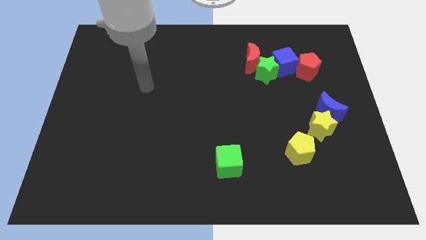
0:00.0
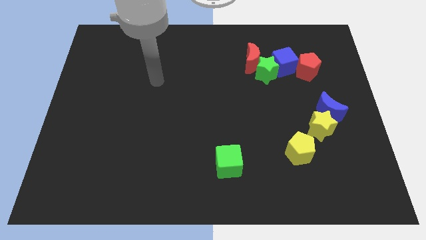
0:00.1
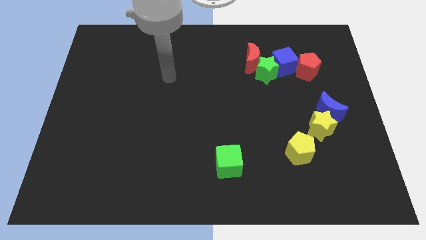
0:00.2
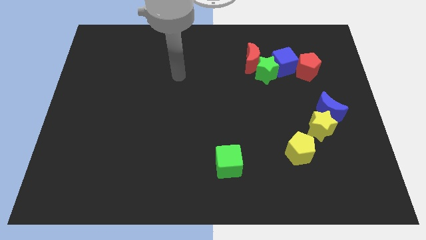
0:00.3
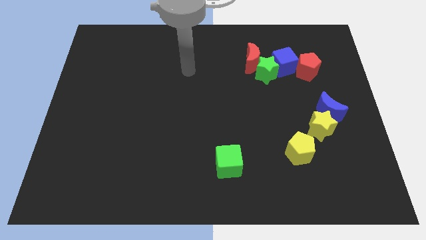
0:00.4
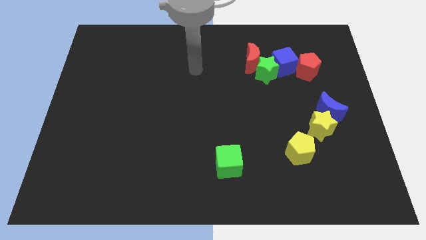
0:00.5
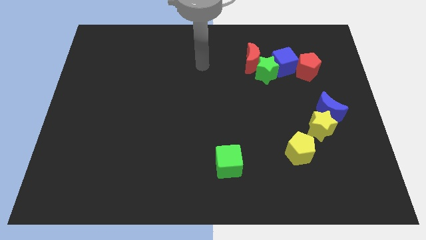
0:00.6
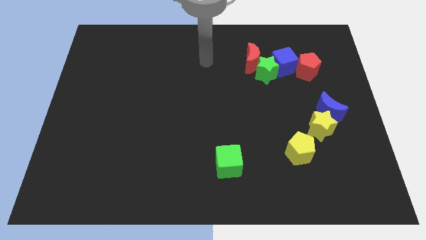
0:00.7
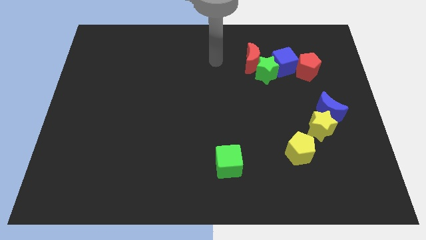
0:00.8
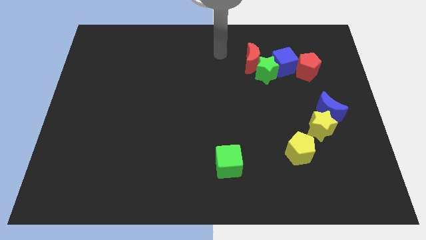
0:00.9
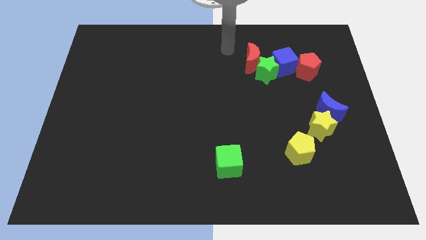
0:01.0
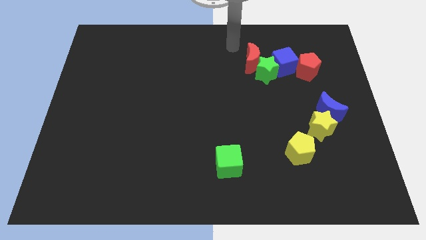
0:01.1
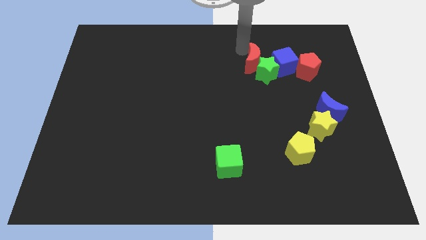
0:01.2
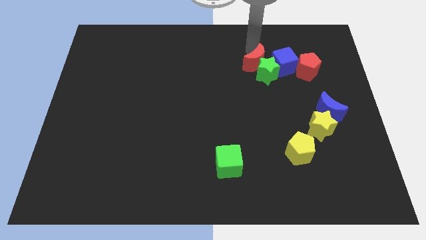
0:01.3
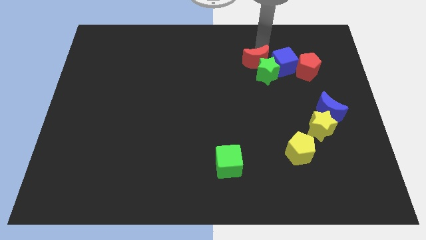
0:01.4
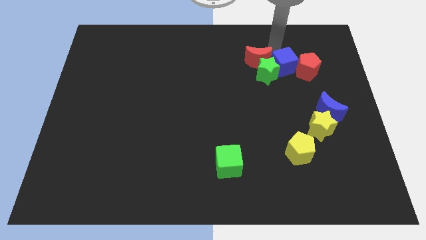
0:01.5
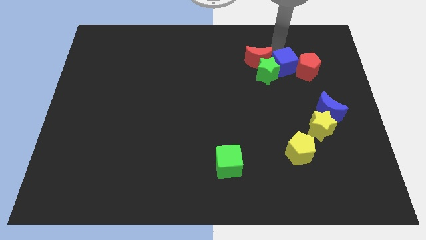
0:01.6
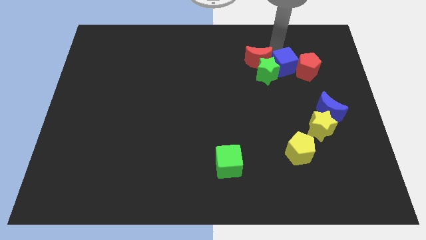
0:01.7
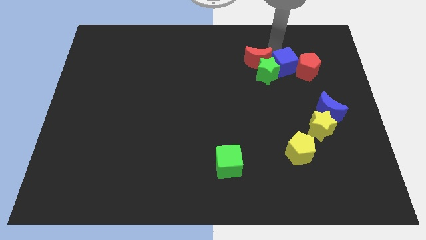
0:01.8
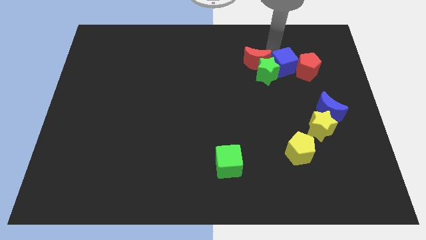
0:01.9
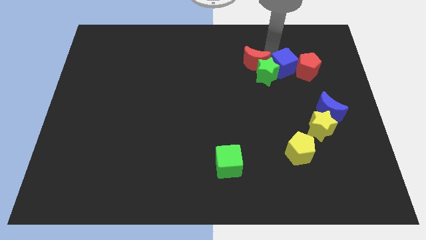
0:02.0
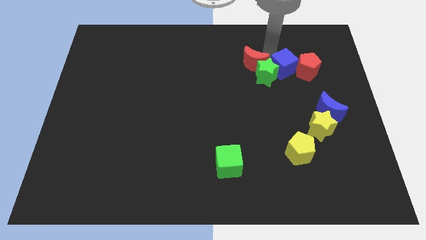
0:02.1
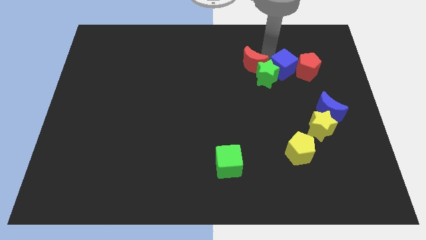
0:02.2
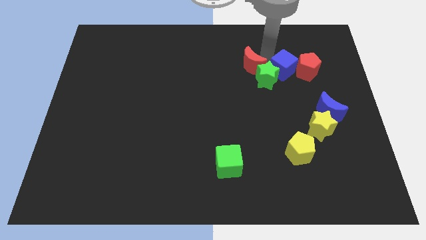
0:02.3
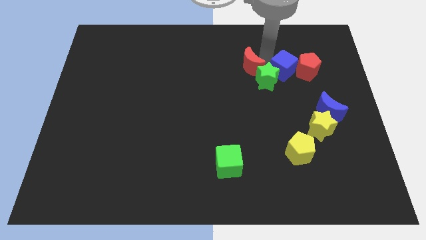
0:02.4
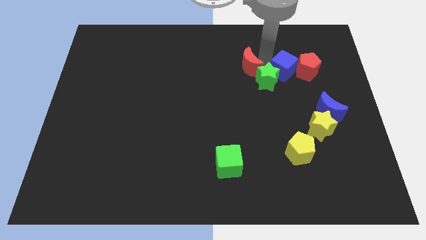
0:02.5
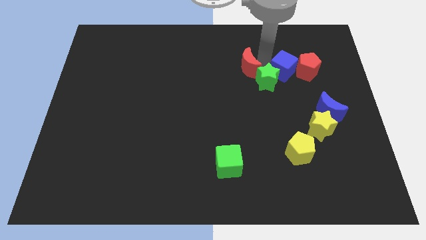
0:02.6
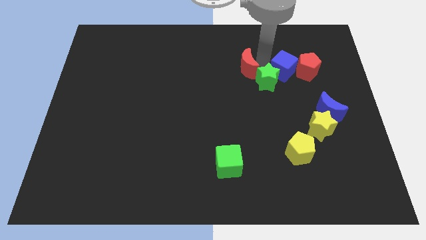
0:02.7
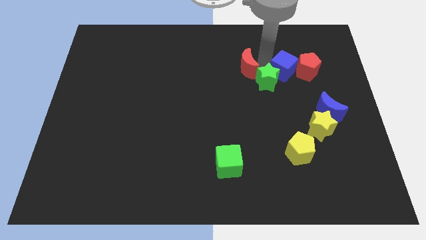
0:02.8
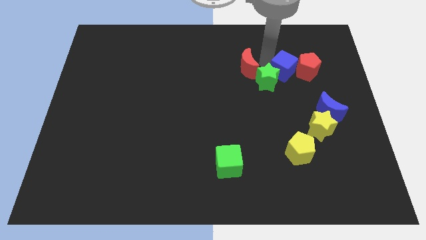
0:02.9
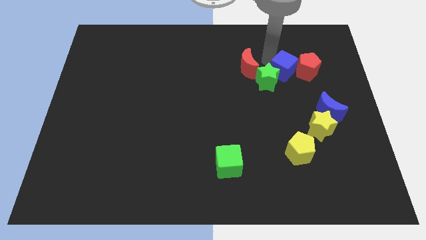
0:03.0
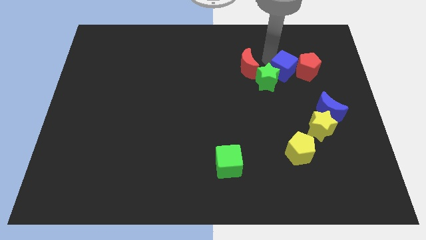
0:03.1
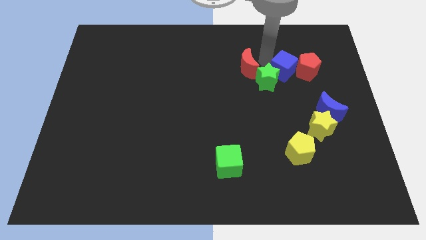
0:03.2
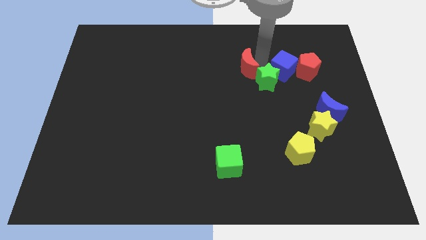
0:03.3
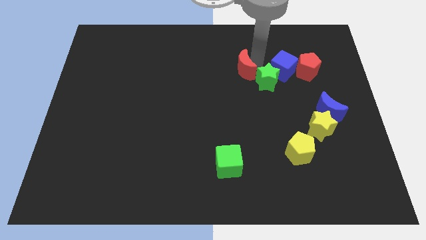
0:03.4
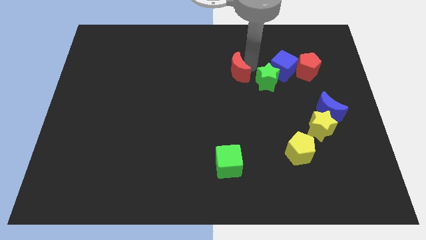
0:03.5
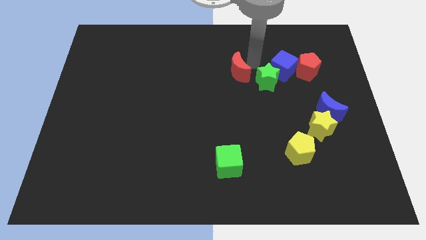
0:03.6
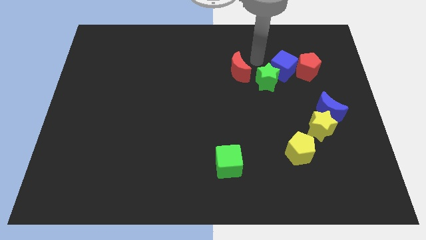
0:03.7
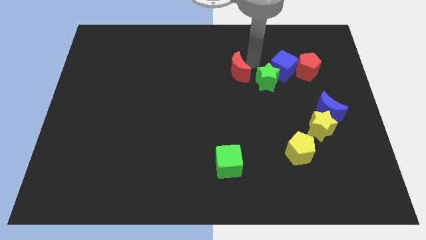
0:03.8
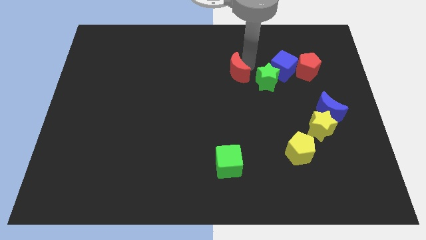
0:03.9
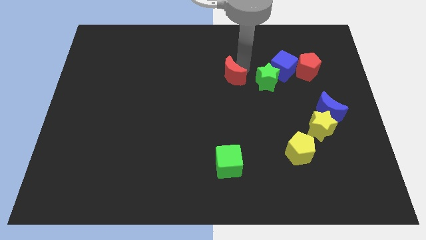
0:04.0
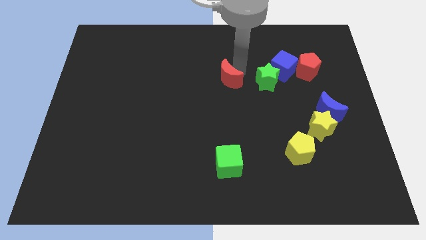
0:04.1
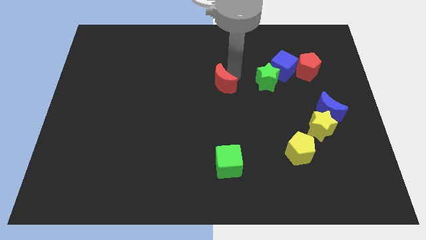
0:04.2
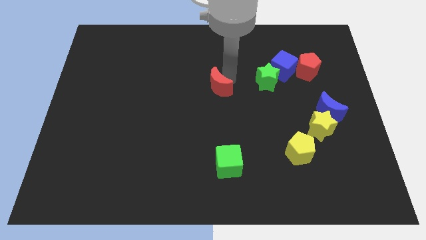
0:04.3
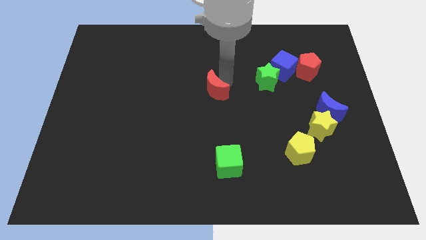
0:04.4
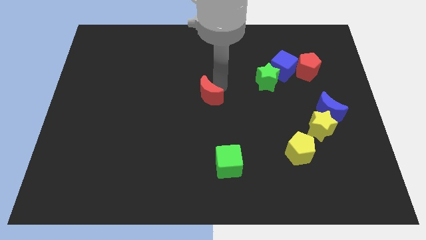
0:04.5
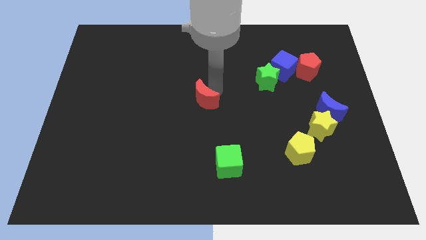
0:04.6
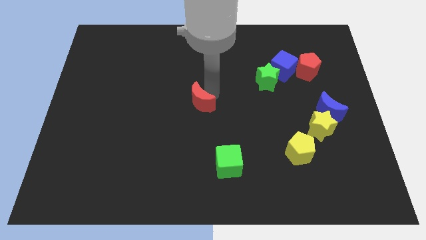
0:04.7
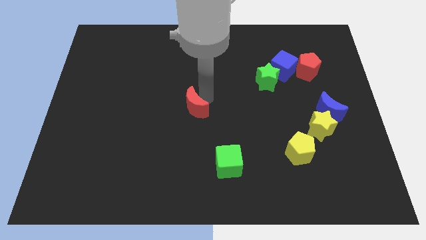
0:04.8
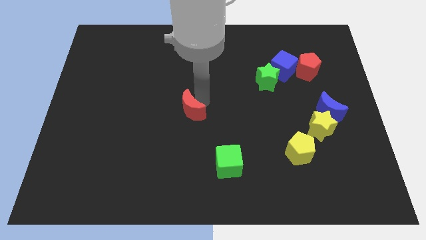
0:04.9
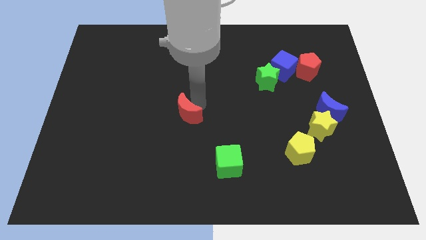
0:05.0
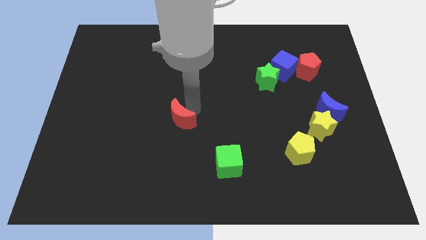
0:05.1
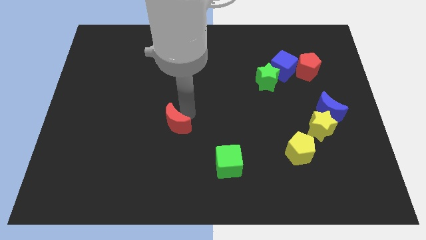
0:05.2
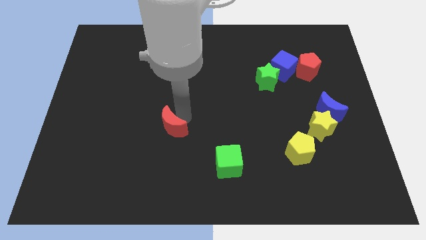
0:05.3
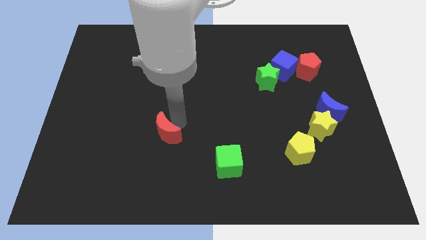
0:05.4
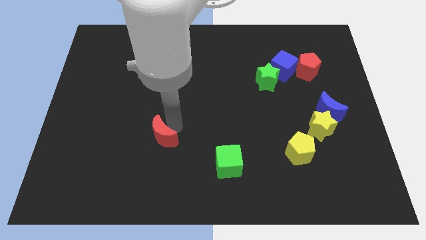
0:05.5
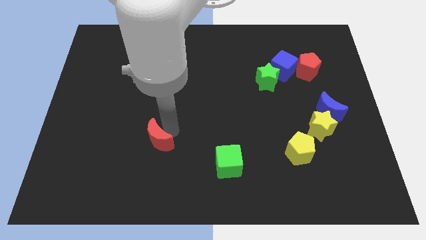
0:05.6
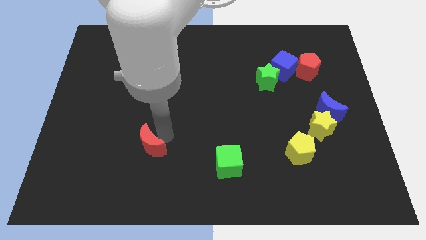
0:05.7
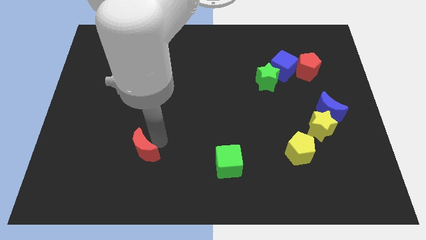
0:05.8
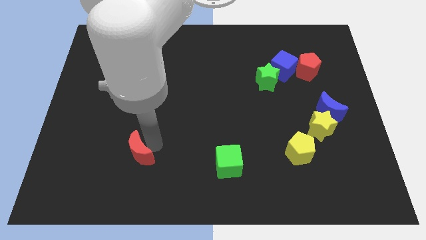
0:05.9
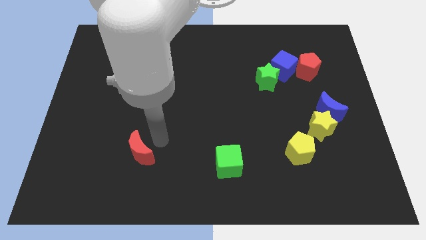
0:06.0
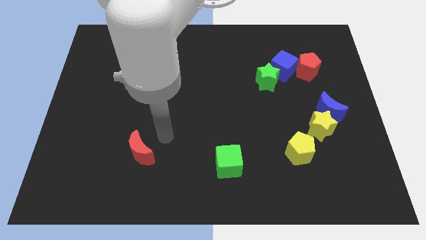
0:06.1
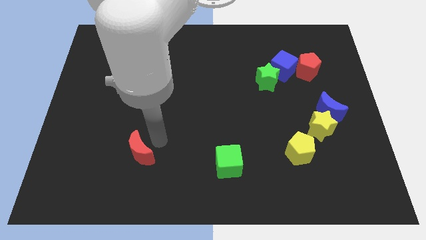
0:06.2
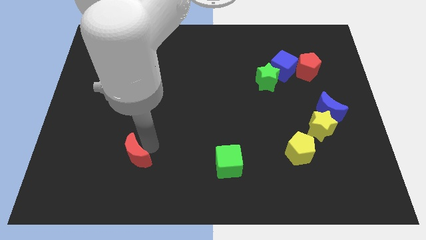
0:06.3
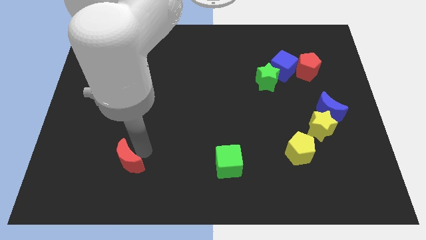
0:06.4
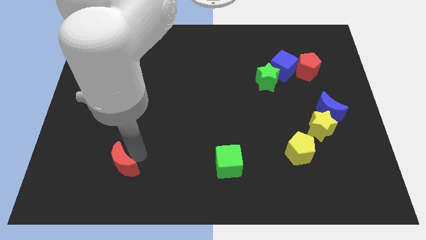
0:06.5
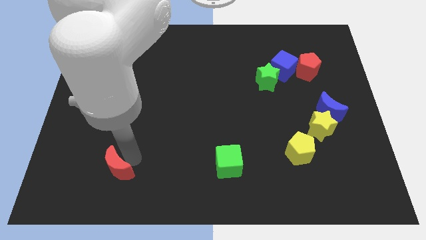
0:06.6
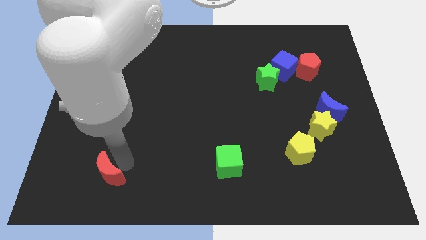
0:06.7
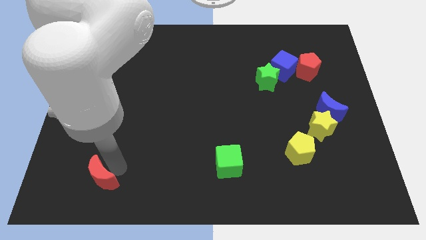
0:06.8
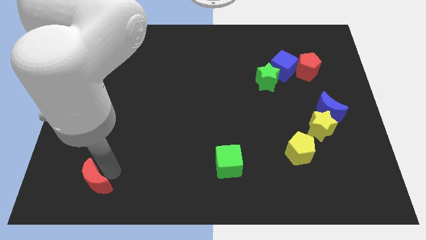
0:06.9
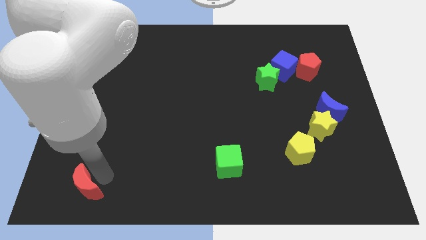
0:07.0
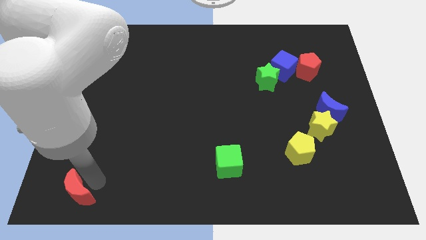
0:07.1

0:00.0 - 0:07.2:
move the red moon to the bottom left
